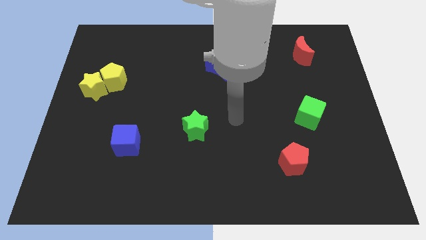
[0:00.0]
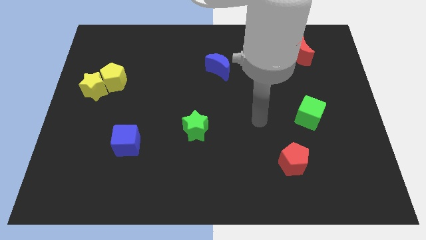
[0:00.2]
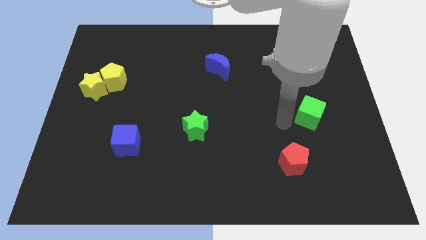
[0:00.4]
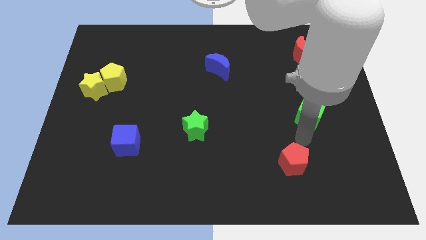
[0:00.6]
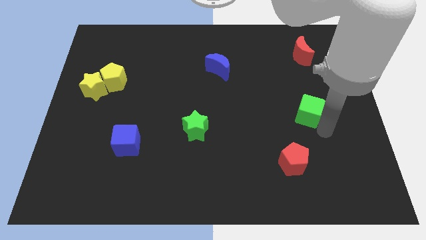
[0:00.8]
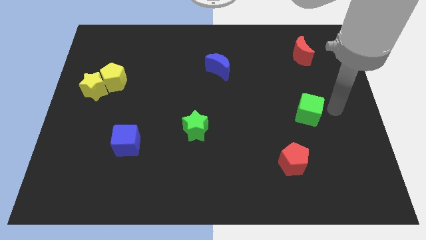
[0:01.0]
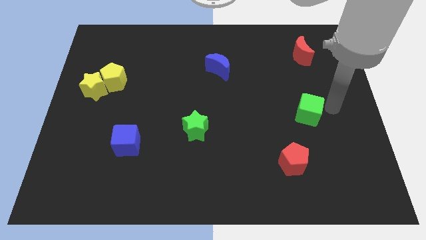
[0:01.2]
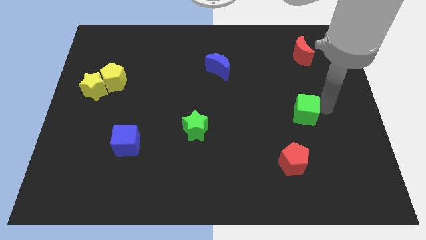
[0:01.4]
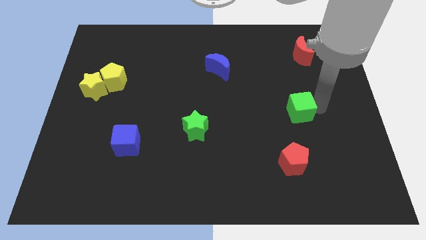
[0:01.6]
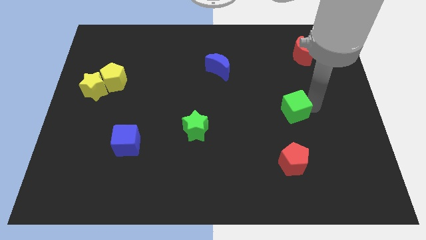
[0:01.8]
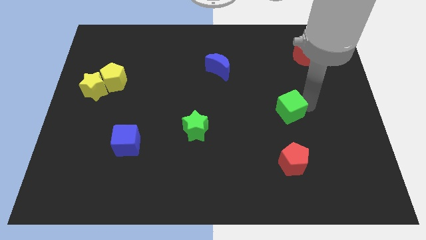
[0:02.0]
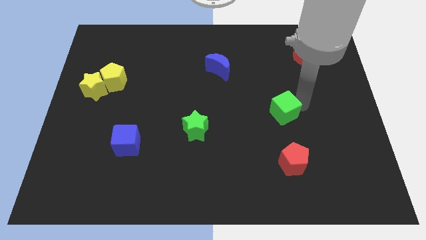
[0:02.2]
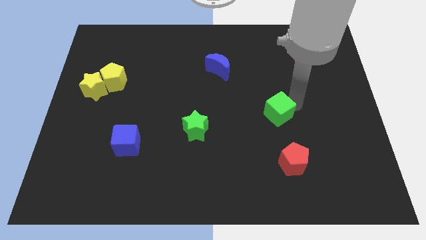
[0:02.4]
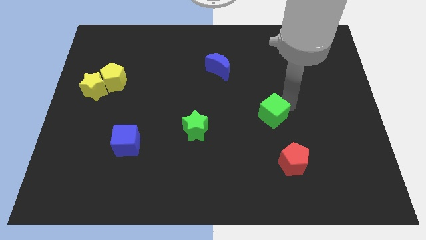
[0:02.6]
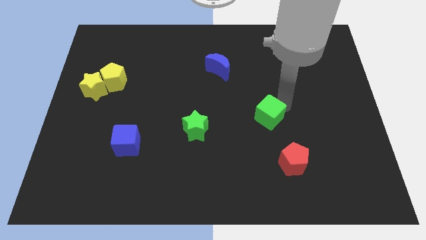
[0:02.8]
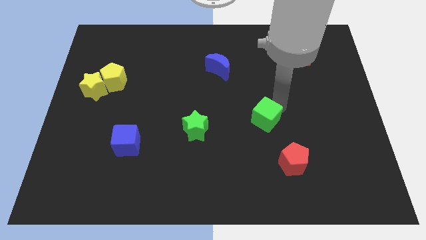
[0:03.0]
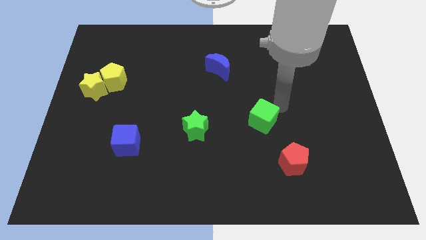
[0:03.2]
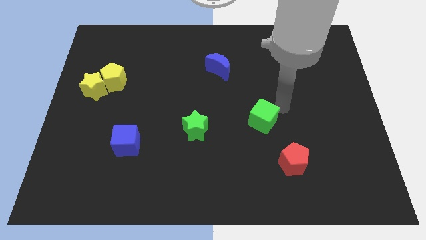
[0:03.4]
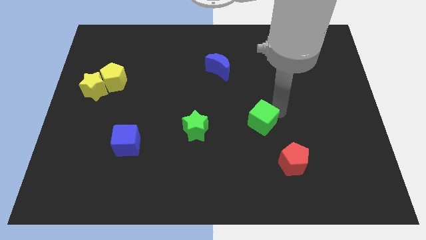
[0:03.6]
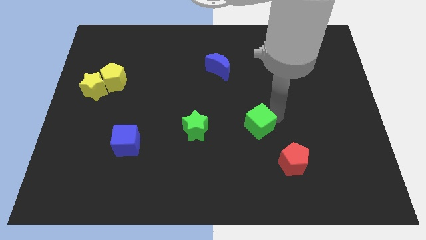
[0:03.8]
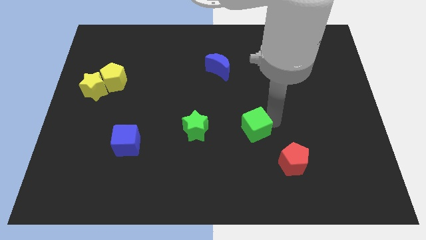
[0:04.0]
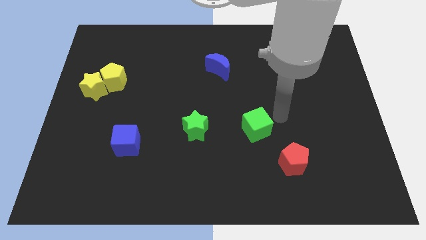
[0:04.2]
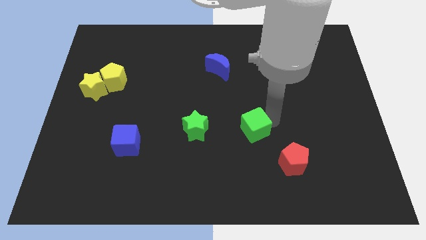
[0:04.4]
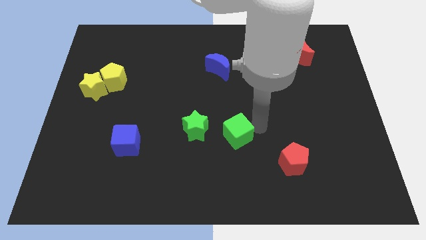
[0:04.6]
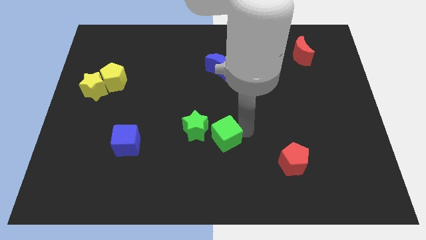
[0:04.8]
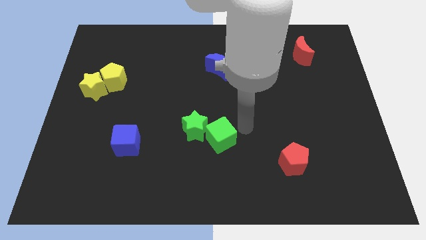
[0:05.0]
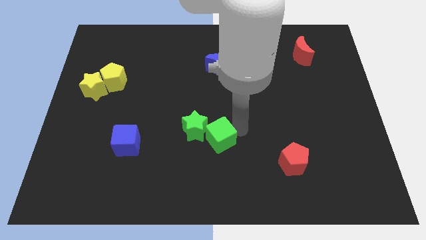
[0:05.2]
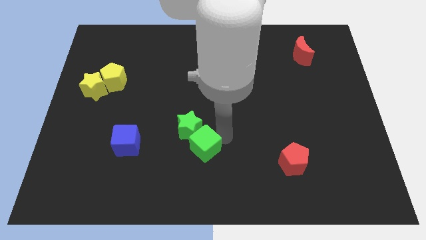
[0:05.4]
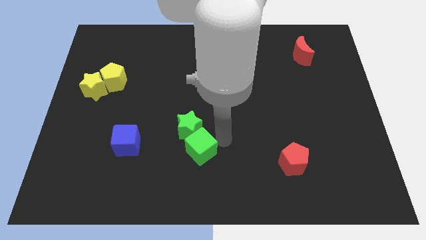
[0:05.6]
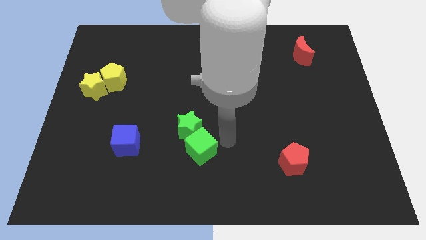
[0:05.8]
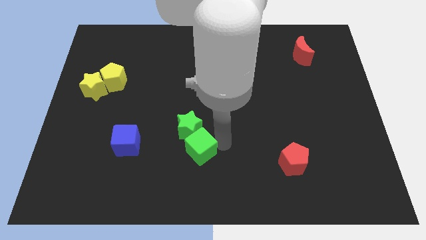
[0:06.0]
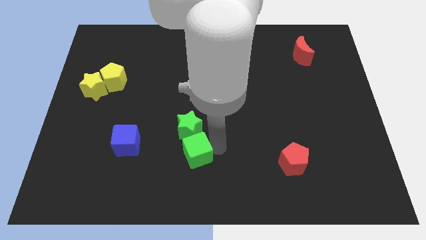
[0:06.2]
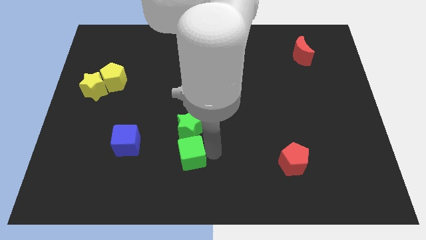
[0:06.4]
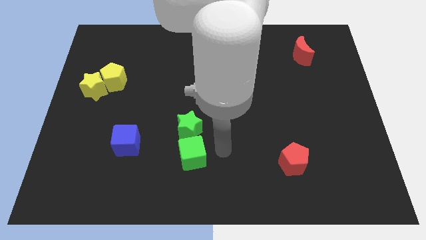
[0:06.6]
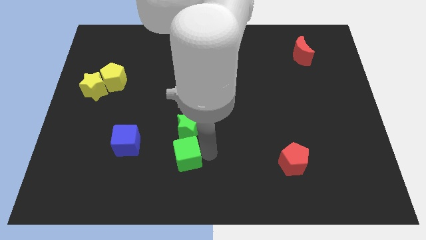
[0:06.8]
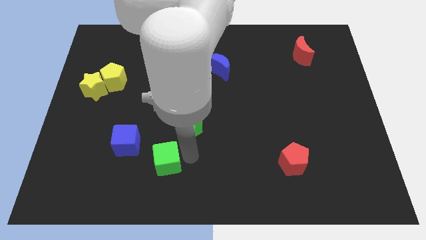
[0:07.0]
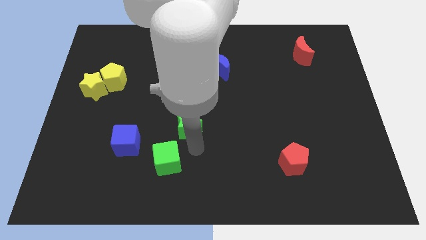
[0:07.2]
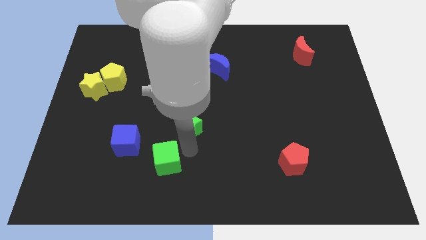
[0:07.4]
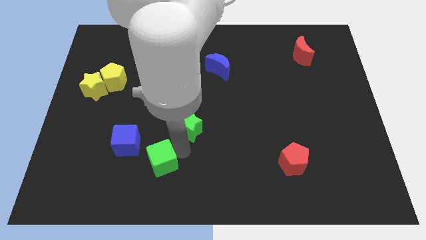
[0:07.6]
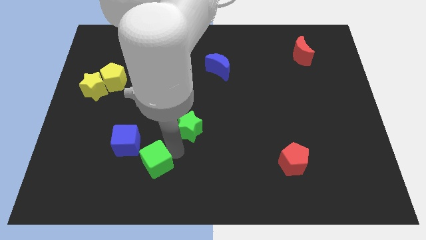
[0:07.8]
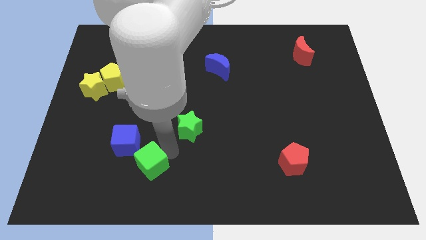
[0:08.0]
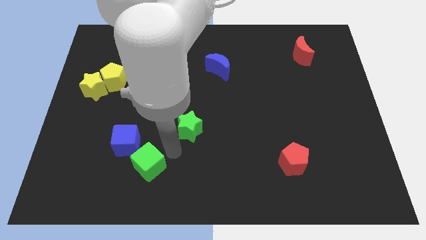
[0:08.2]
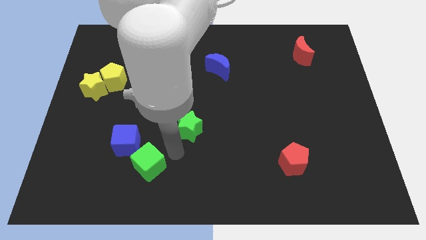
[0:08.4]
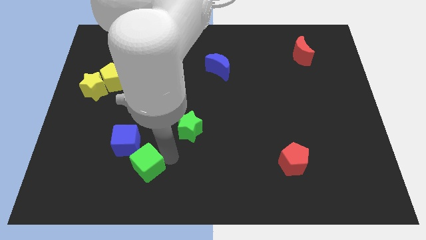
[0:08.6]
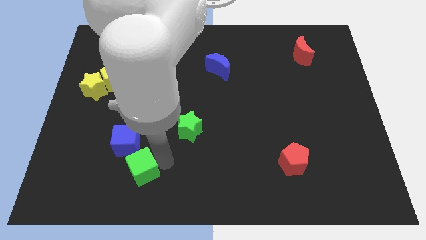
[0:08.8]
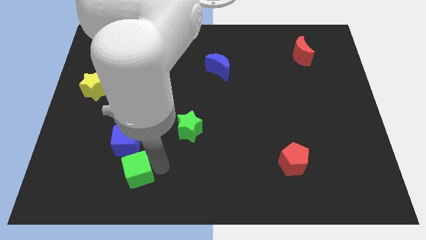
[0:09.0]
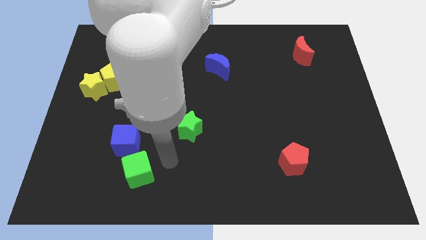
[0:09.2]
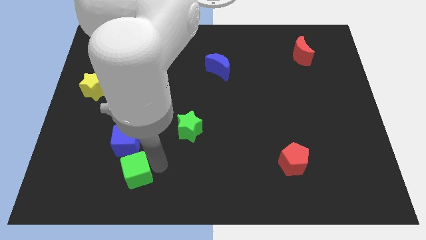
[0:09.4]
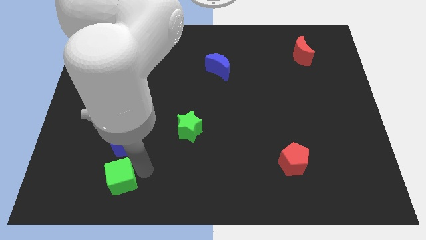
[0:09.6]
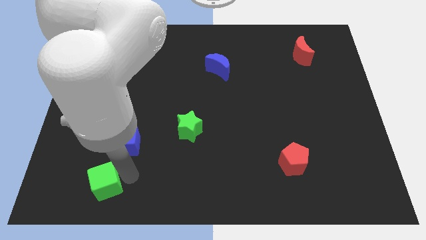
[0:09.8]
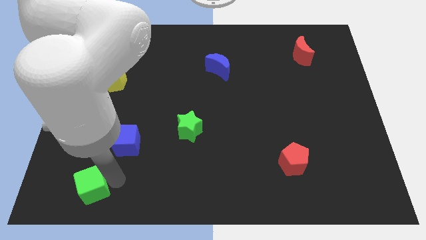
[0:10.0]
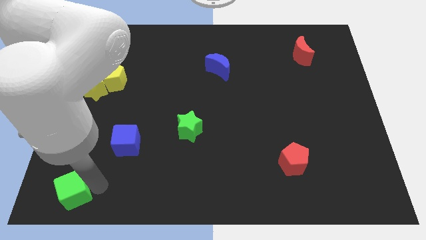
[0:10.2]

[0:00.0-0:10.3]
put the green cube to the bottom left corner

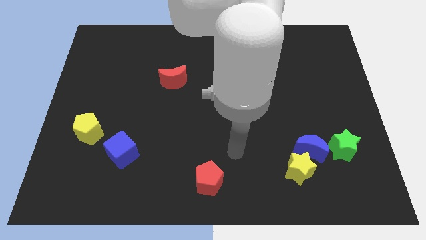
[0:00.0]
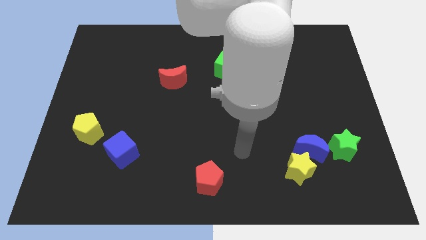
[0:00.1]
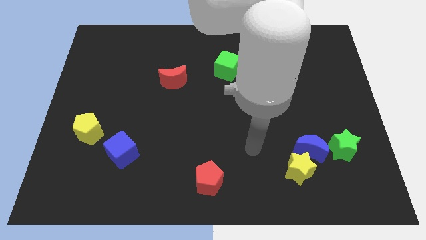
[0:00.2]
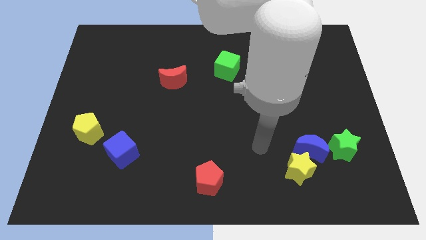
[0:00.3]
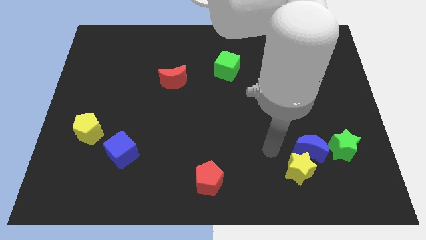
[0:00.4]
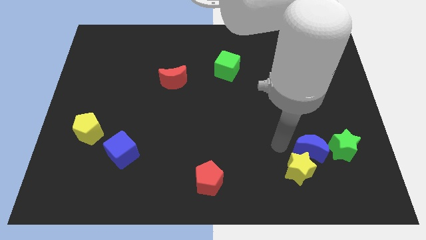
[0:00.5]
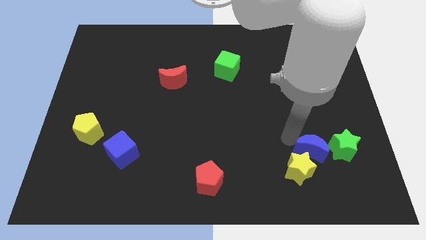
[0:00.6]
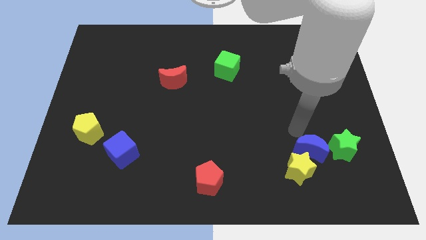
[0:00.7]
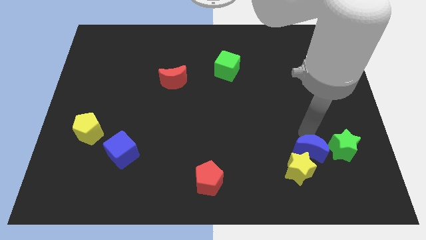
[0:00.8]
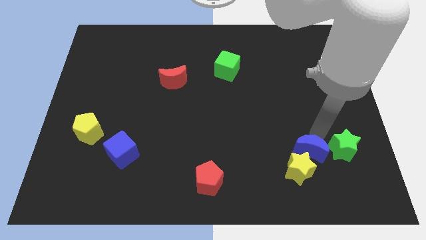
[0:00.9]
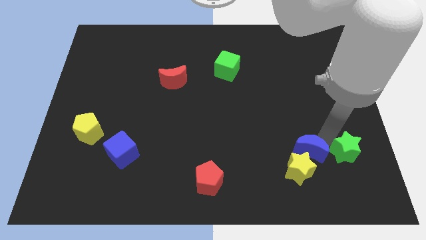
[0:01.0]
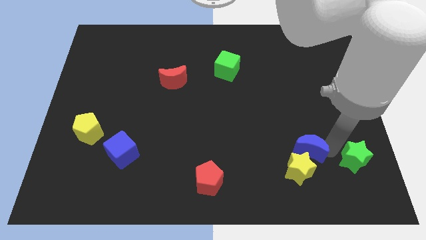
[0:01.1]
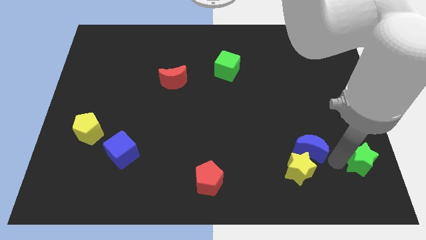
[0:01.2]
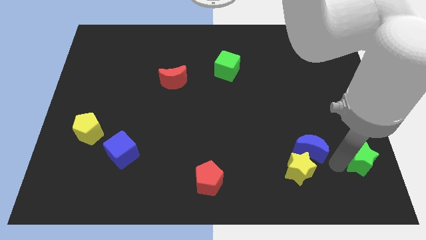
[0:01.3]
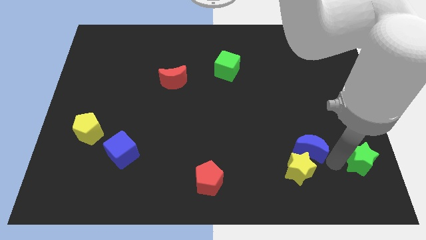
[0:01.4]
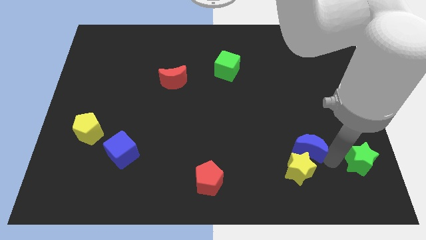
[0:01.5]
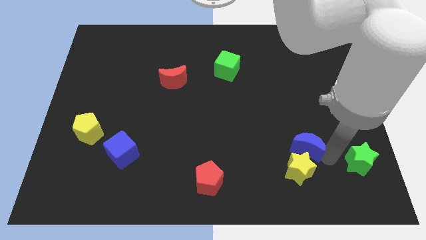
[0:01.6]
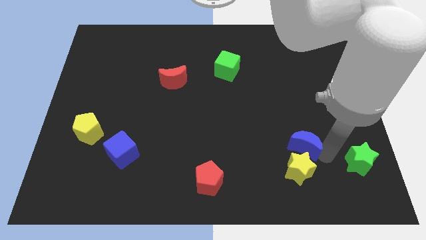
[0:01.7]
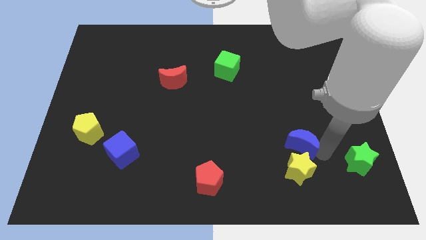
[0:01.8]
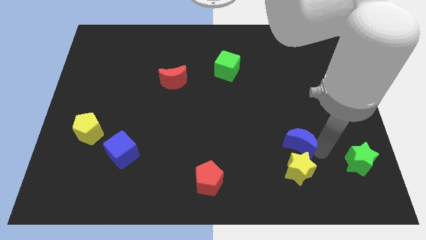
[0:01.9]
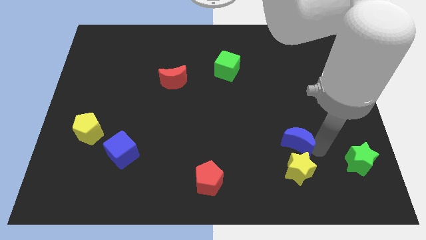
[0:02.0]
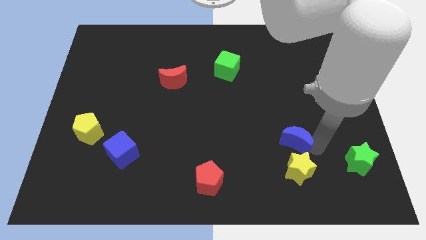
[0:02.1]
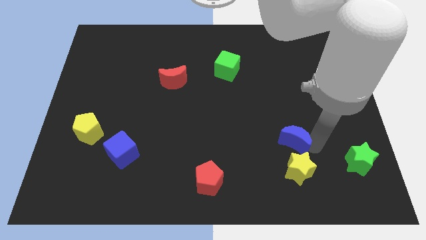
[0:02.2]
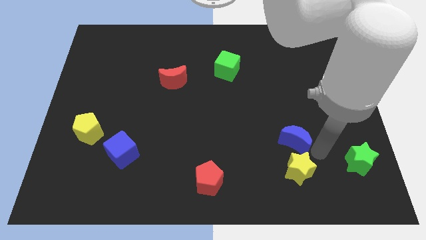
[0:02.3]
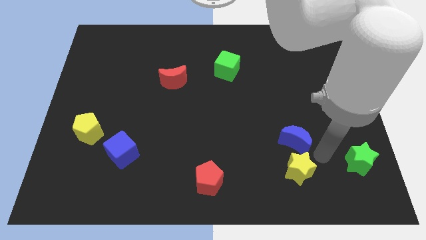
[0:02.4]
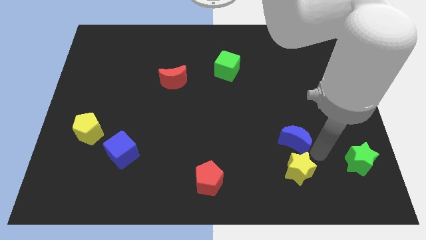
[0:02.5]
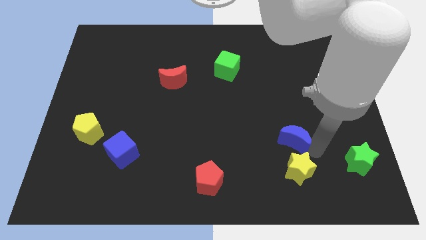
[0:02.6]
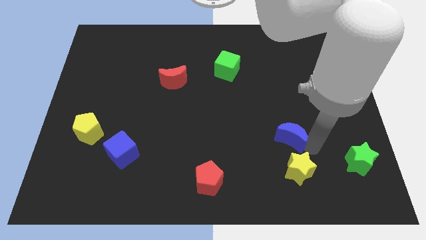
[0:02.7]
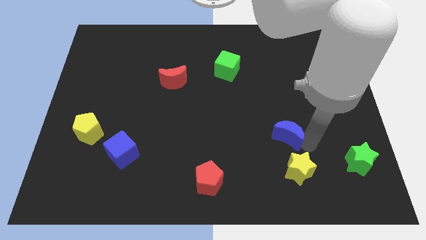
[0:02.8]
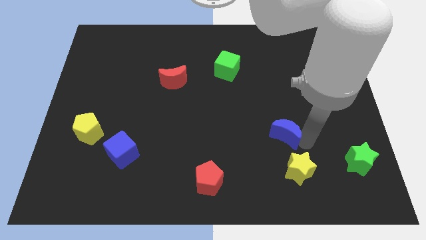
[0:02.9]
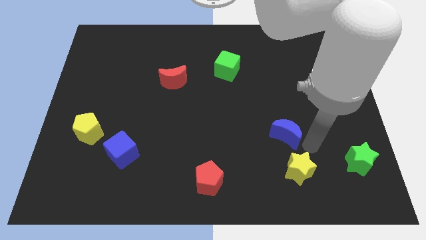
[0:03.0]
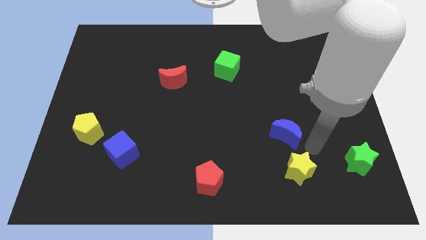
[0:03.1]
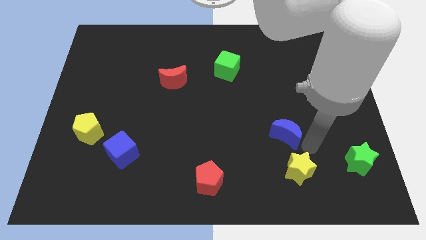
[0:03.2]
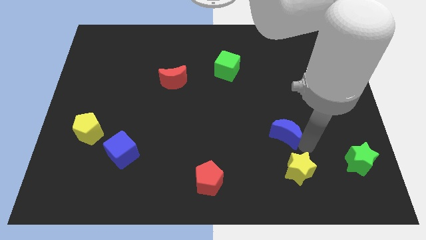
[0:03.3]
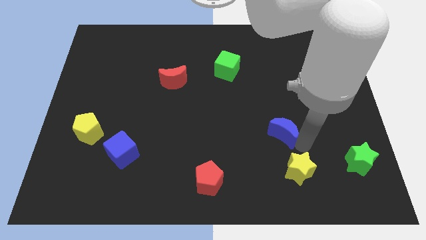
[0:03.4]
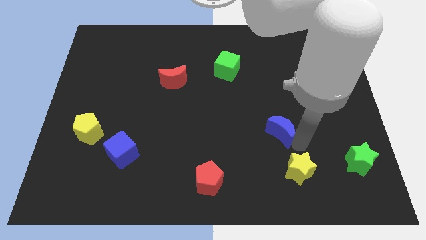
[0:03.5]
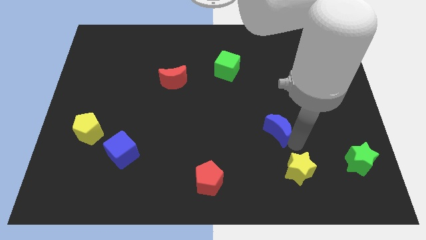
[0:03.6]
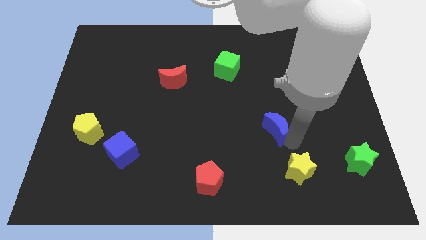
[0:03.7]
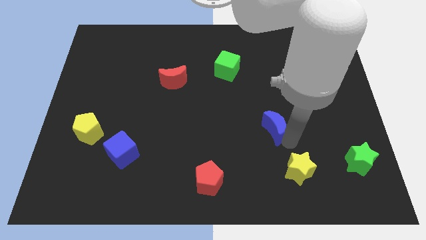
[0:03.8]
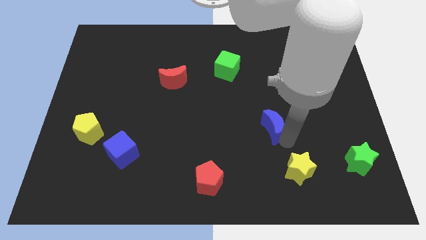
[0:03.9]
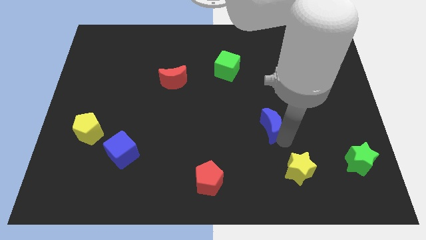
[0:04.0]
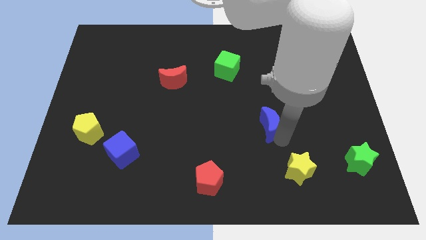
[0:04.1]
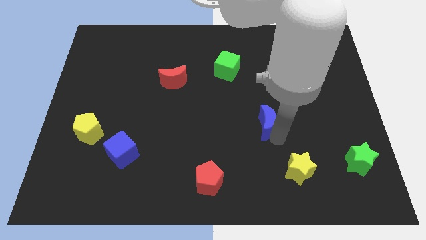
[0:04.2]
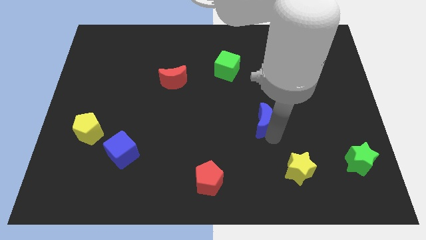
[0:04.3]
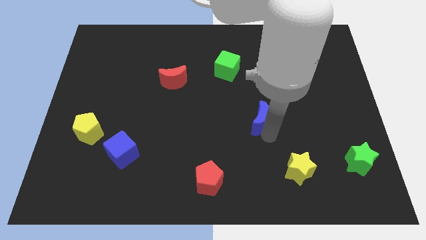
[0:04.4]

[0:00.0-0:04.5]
slide the blue moon to the center of the board
